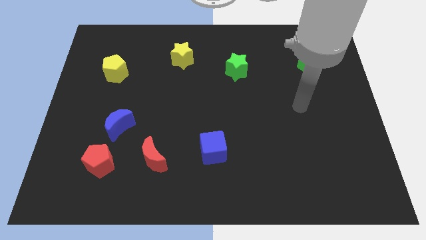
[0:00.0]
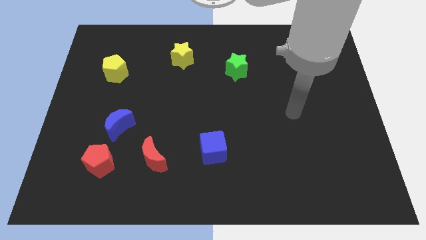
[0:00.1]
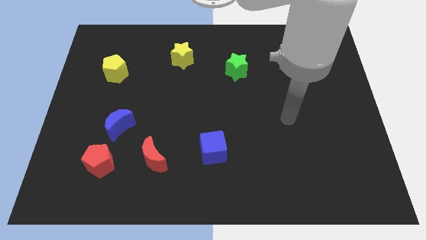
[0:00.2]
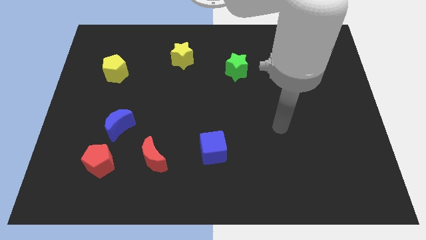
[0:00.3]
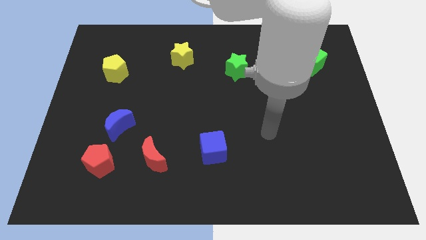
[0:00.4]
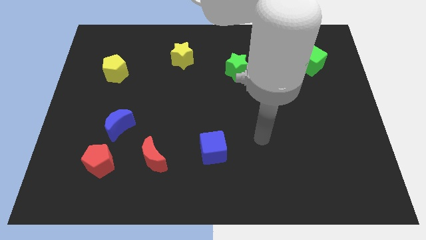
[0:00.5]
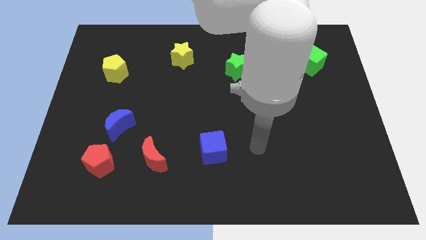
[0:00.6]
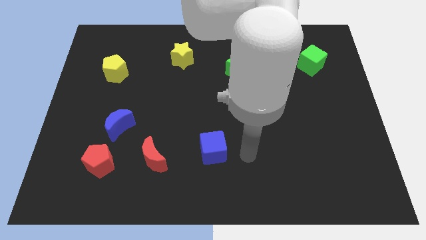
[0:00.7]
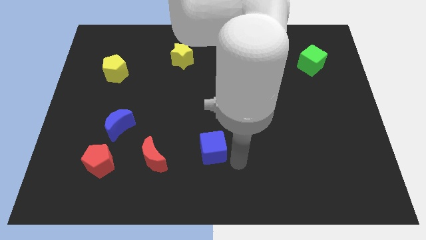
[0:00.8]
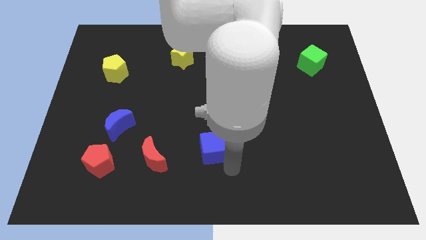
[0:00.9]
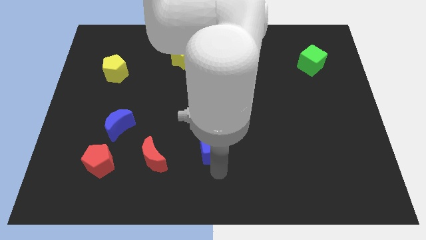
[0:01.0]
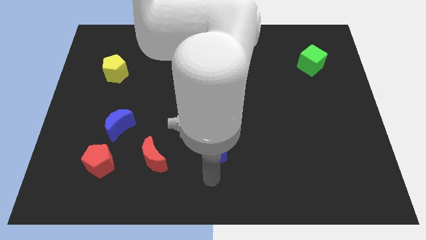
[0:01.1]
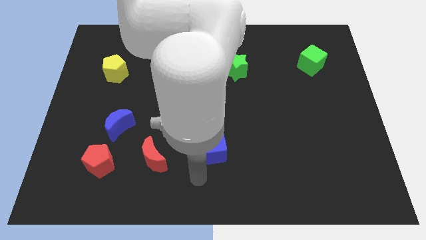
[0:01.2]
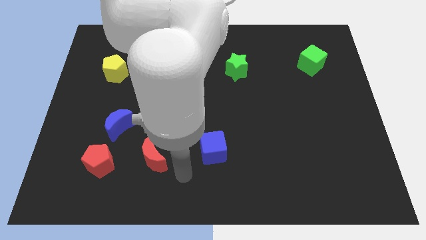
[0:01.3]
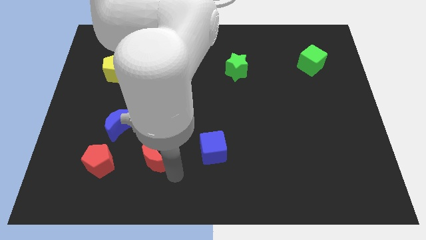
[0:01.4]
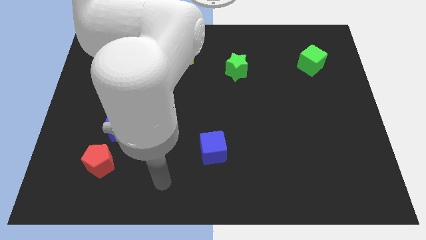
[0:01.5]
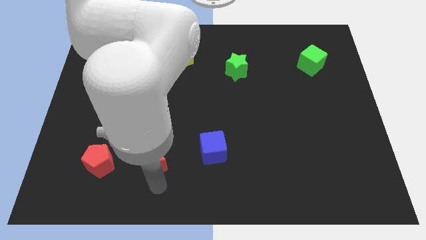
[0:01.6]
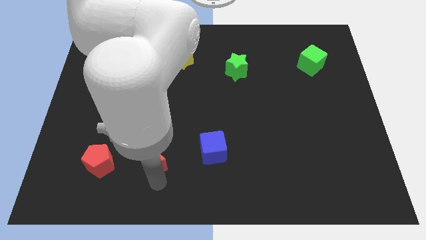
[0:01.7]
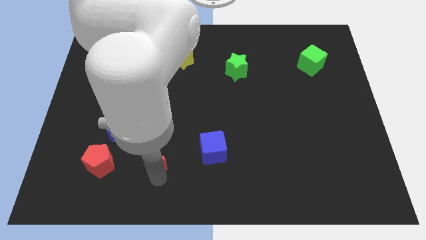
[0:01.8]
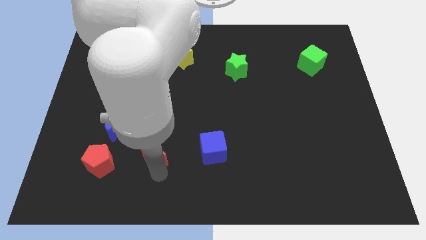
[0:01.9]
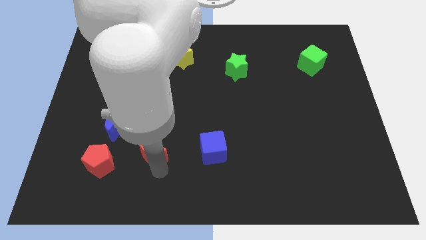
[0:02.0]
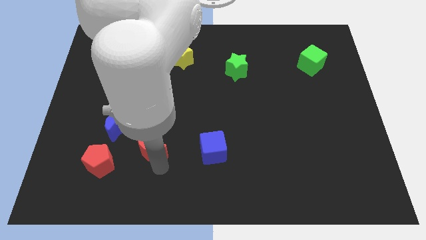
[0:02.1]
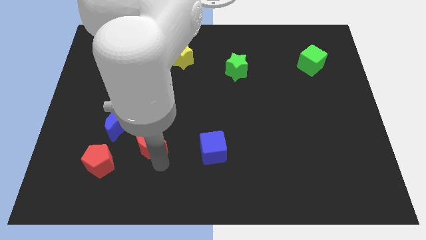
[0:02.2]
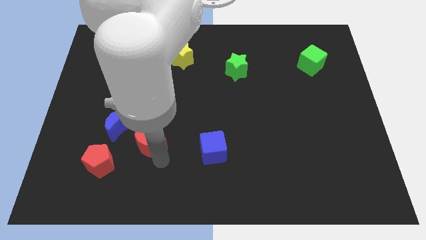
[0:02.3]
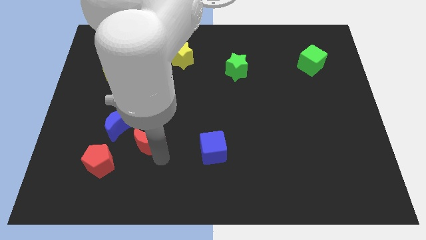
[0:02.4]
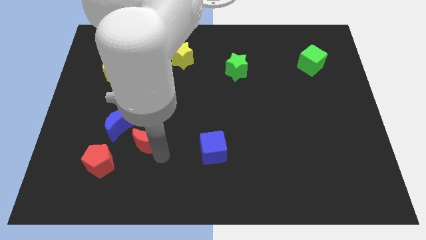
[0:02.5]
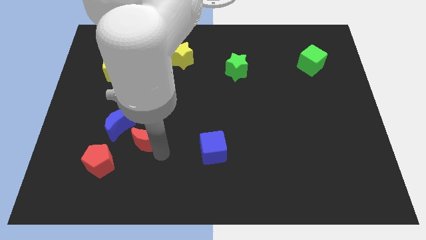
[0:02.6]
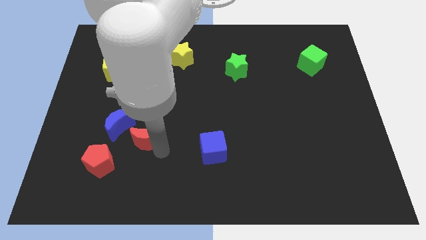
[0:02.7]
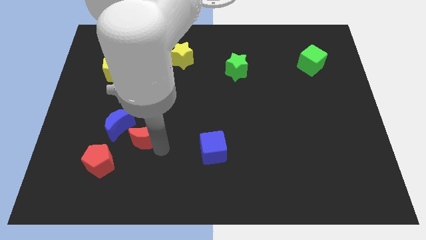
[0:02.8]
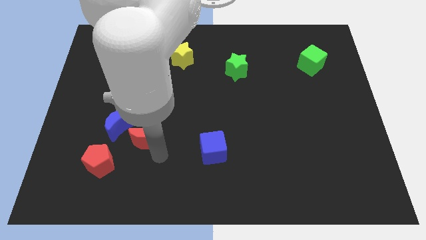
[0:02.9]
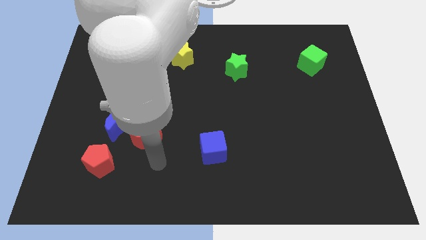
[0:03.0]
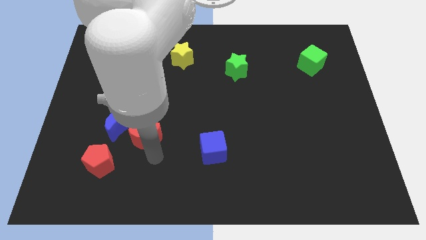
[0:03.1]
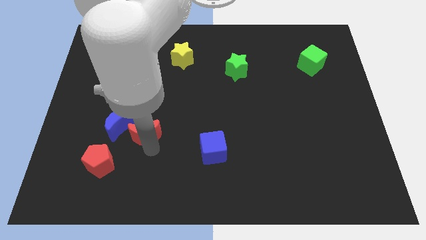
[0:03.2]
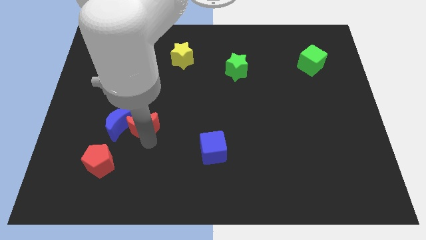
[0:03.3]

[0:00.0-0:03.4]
slightly move the red moon upwards and to the left diagonally

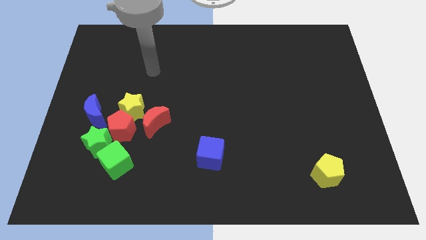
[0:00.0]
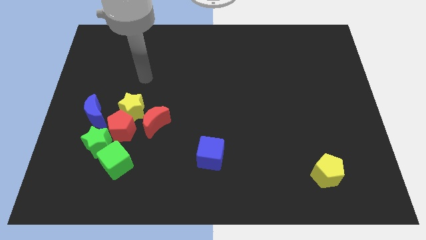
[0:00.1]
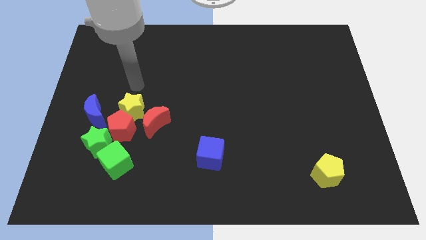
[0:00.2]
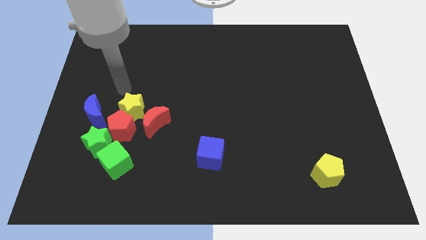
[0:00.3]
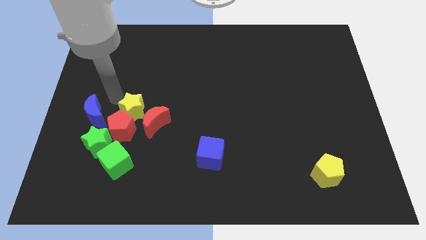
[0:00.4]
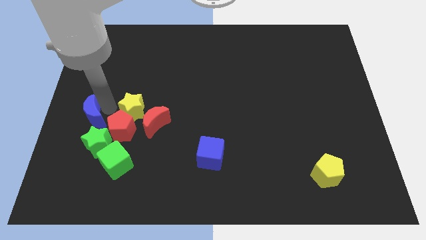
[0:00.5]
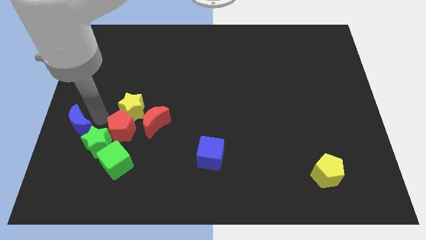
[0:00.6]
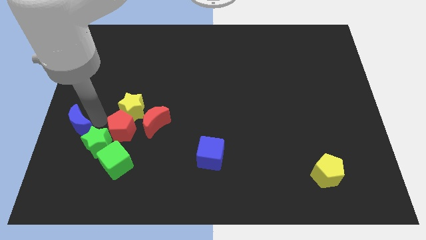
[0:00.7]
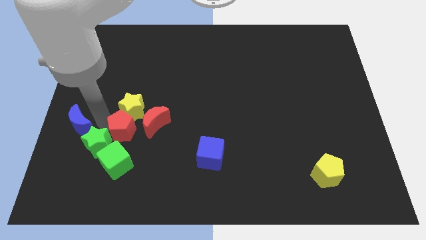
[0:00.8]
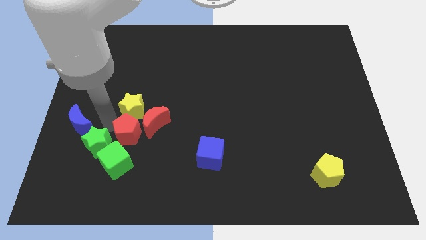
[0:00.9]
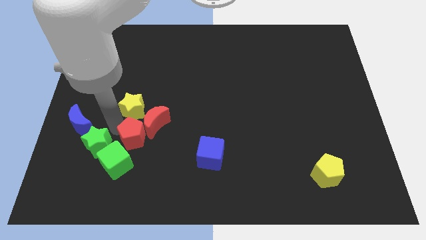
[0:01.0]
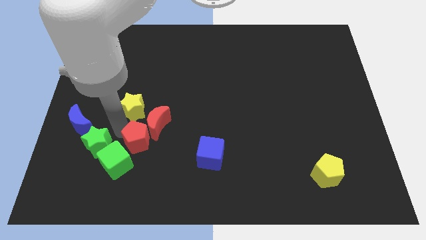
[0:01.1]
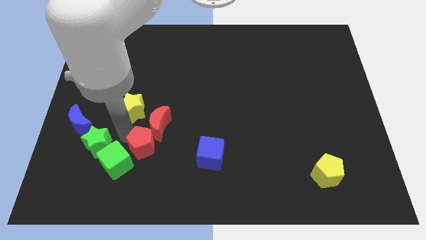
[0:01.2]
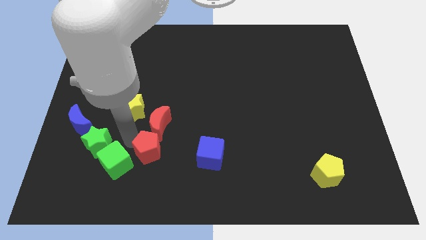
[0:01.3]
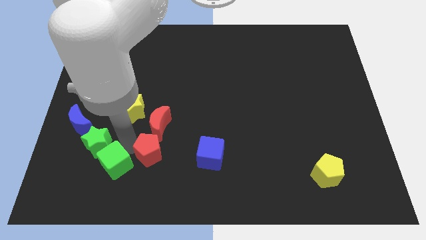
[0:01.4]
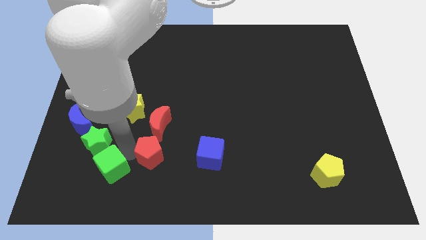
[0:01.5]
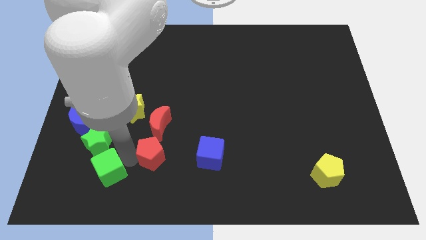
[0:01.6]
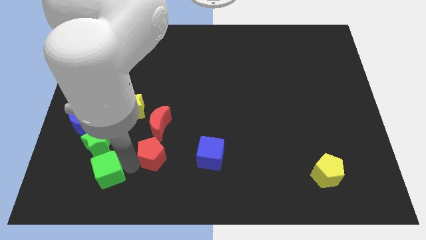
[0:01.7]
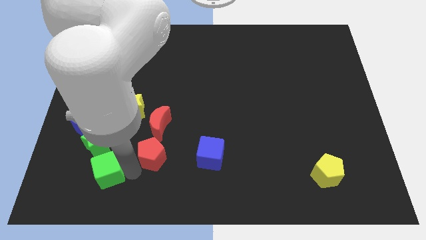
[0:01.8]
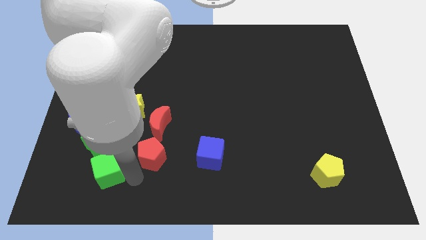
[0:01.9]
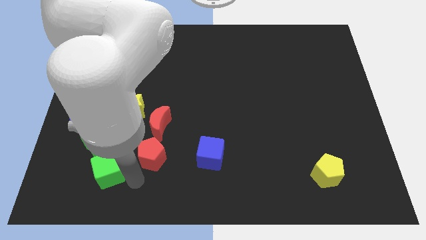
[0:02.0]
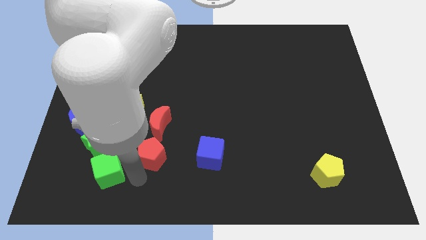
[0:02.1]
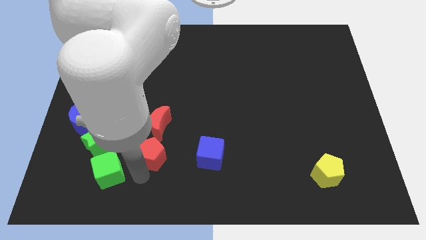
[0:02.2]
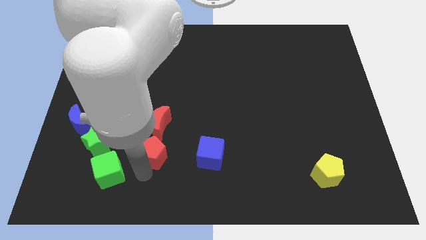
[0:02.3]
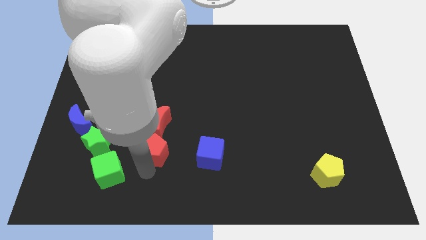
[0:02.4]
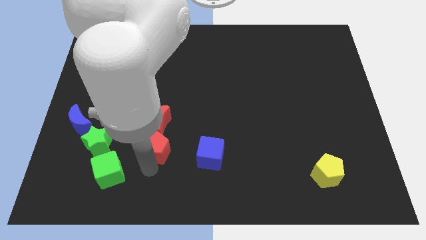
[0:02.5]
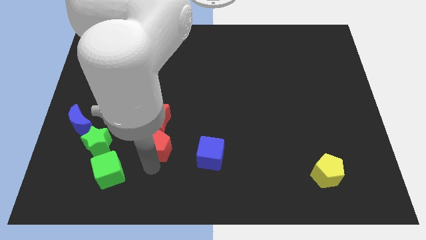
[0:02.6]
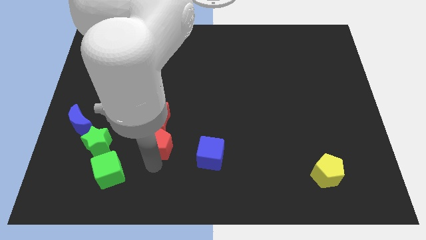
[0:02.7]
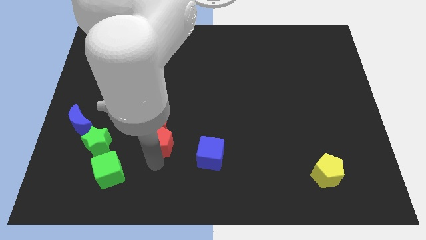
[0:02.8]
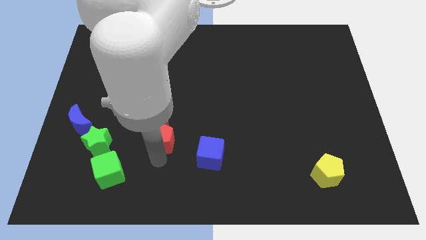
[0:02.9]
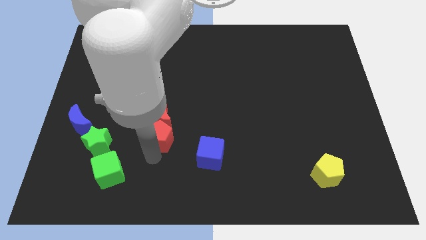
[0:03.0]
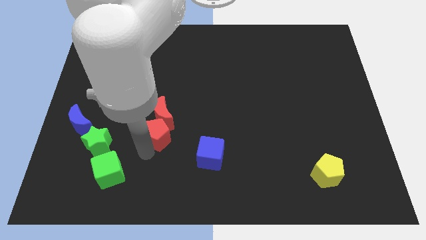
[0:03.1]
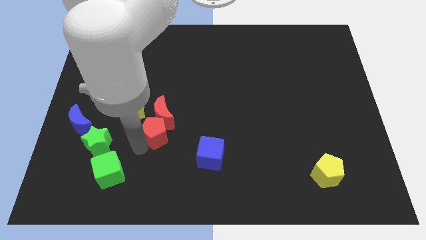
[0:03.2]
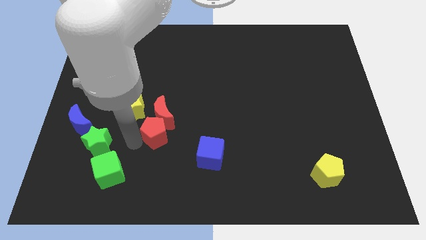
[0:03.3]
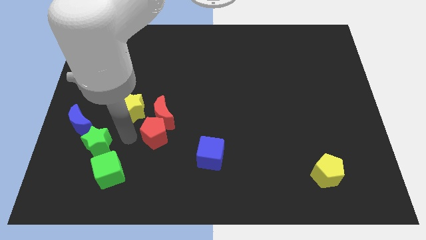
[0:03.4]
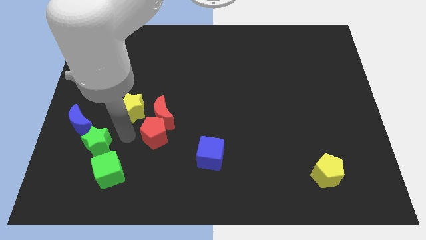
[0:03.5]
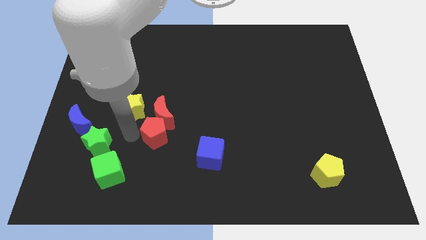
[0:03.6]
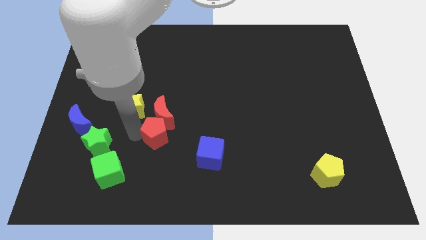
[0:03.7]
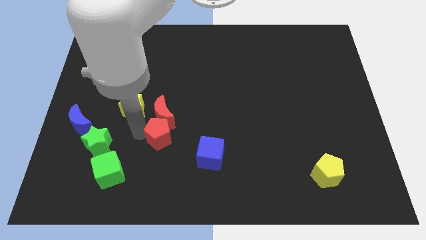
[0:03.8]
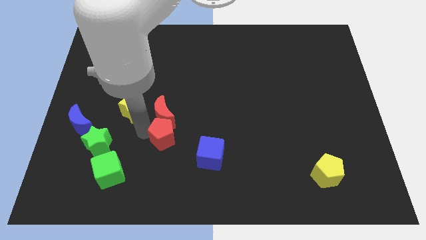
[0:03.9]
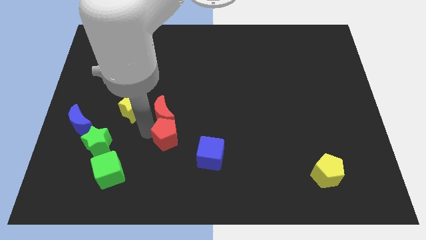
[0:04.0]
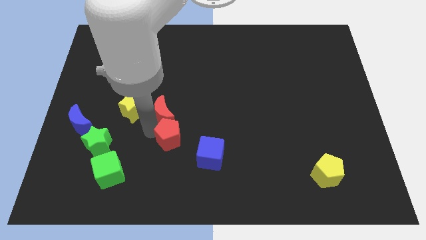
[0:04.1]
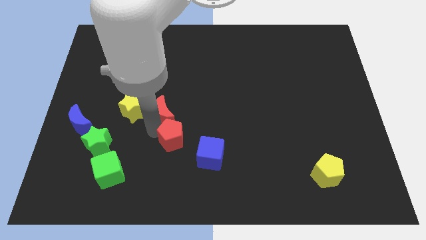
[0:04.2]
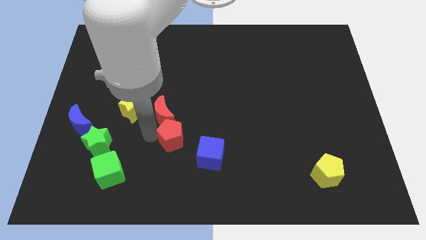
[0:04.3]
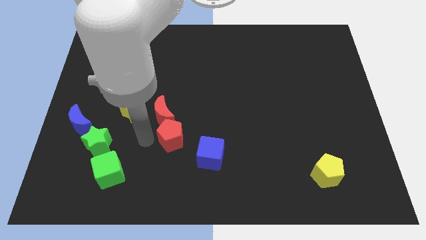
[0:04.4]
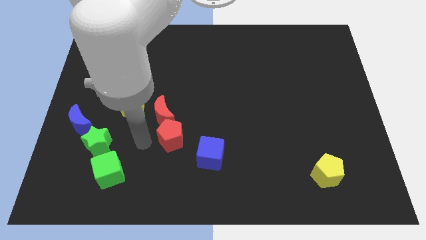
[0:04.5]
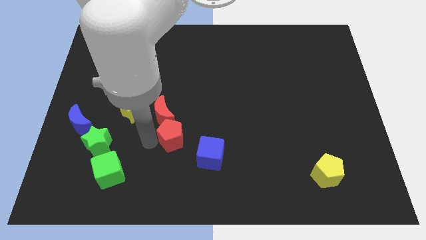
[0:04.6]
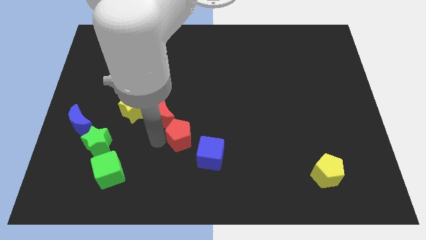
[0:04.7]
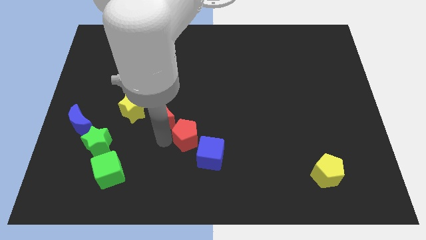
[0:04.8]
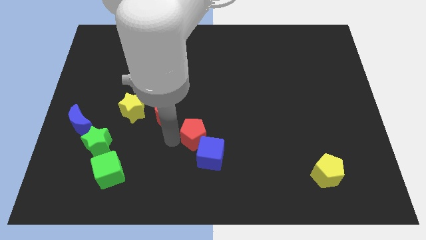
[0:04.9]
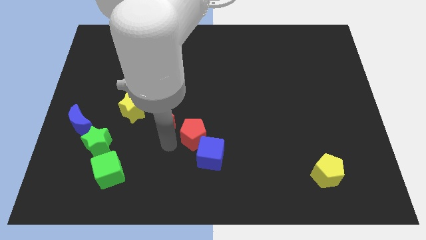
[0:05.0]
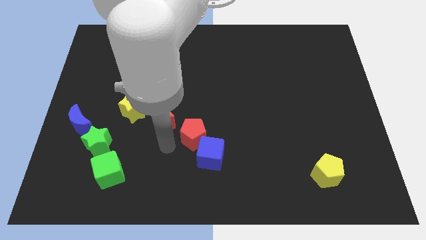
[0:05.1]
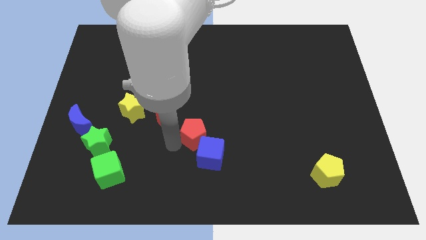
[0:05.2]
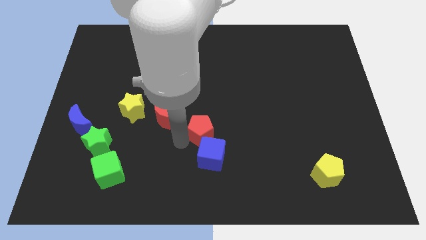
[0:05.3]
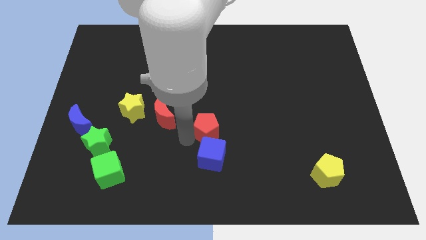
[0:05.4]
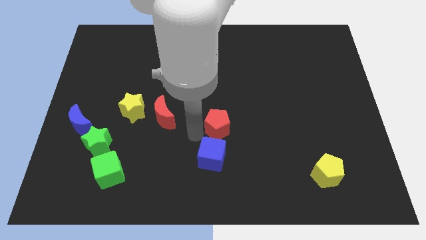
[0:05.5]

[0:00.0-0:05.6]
slide the red pentagon right
